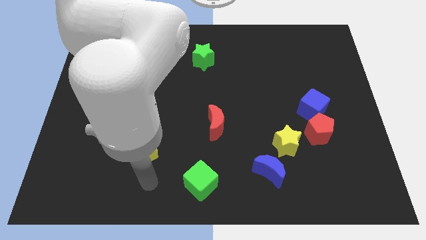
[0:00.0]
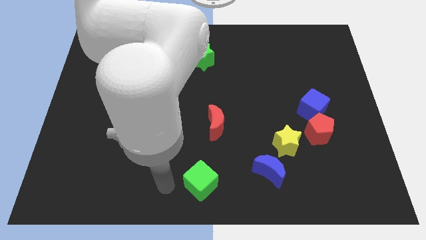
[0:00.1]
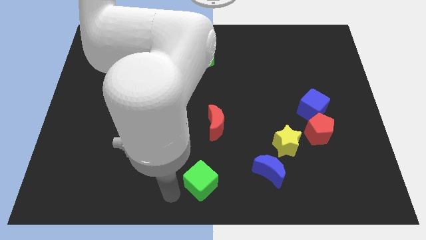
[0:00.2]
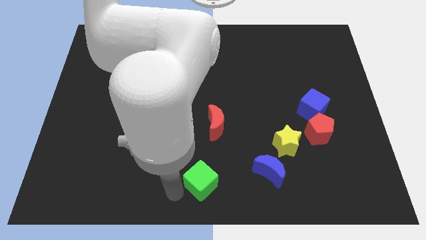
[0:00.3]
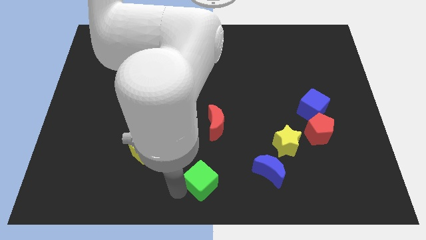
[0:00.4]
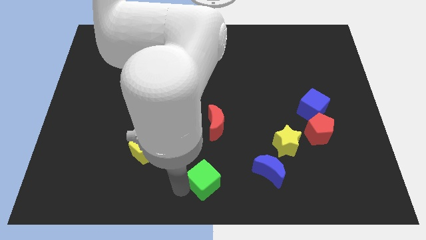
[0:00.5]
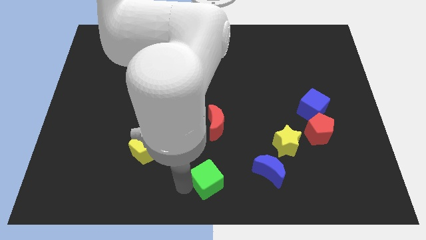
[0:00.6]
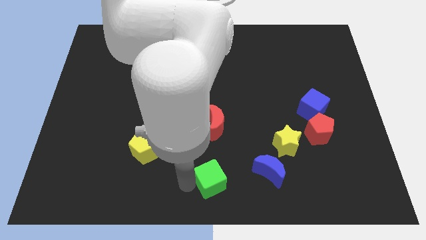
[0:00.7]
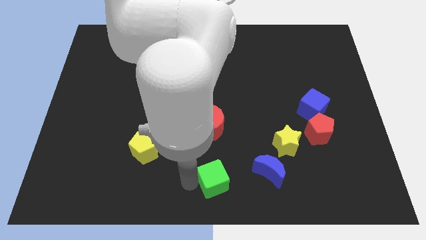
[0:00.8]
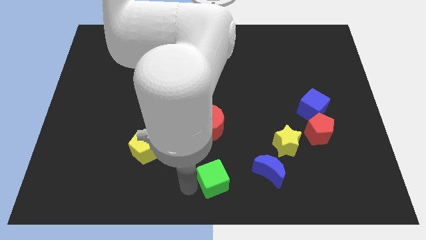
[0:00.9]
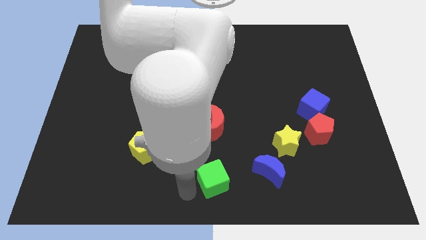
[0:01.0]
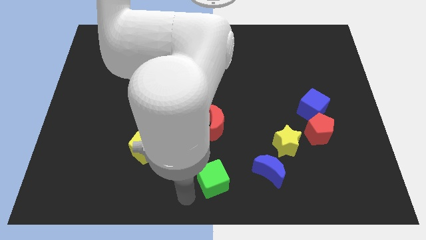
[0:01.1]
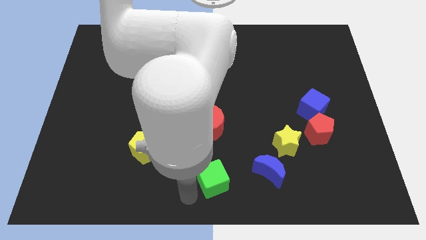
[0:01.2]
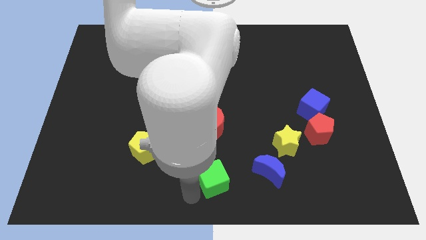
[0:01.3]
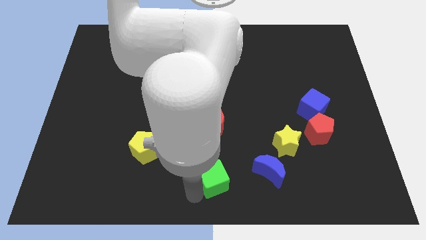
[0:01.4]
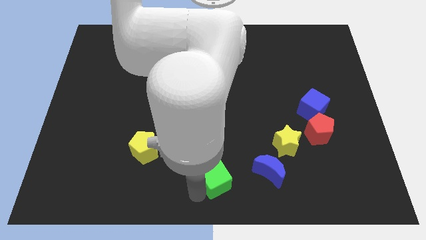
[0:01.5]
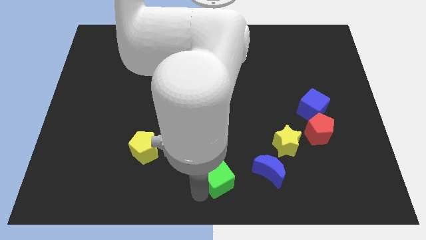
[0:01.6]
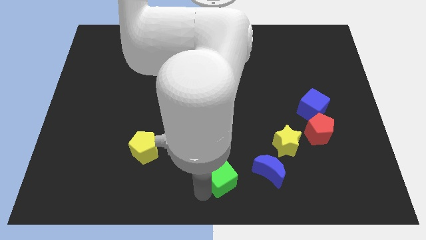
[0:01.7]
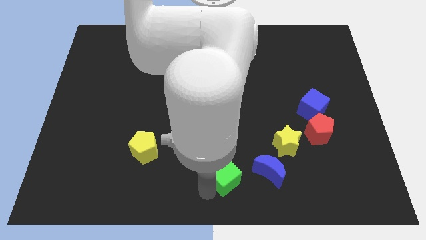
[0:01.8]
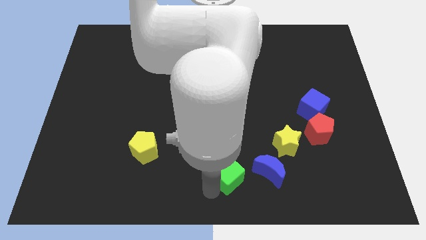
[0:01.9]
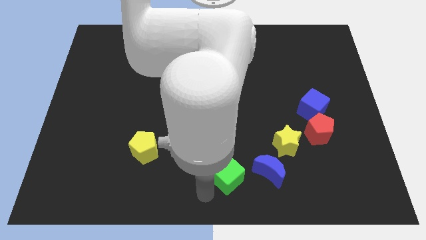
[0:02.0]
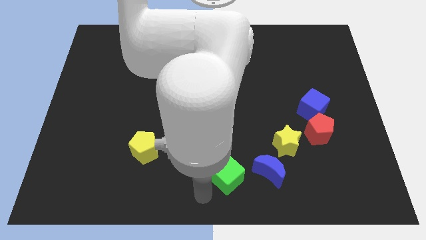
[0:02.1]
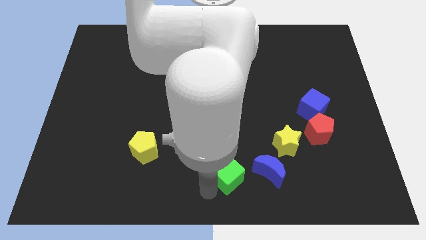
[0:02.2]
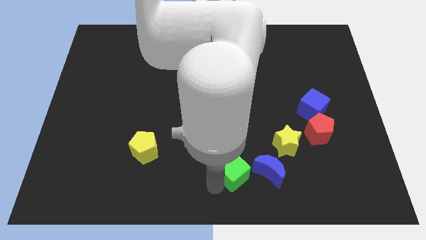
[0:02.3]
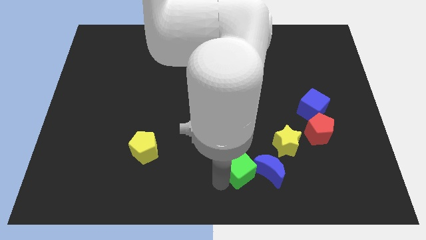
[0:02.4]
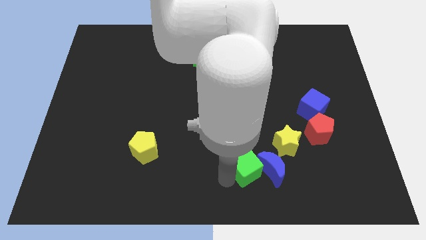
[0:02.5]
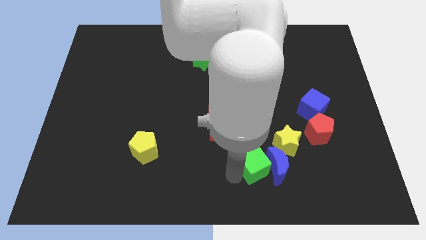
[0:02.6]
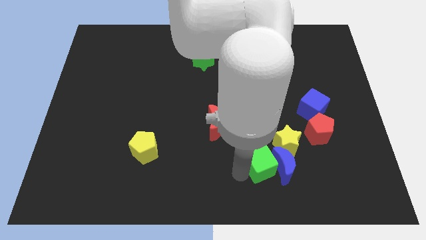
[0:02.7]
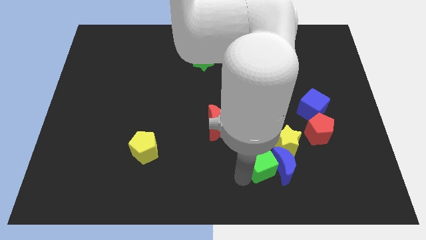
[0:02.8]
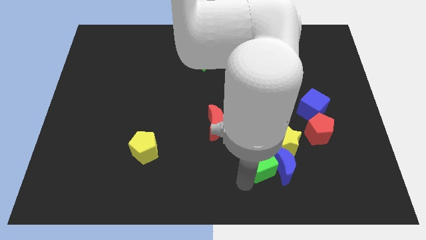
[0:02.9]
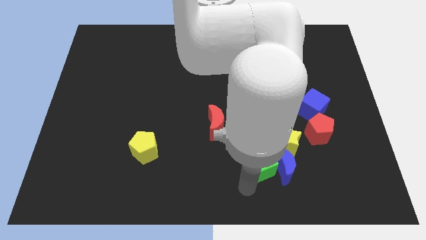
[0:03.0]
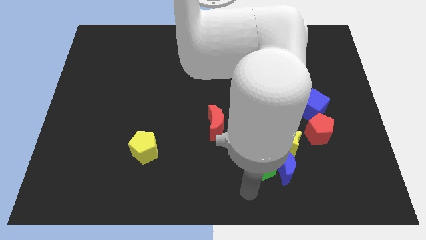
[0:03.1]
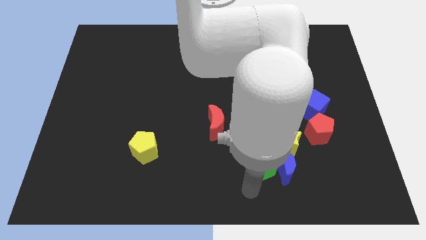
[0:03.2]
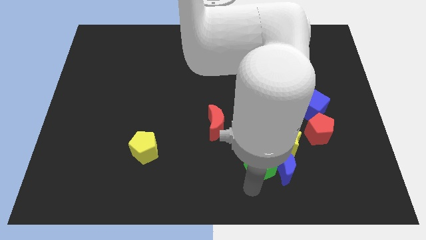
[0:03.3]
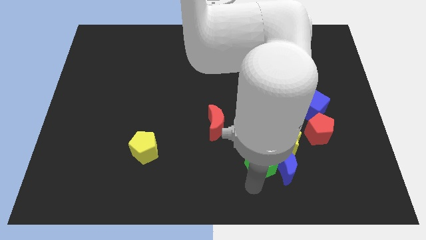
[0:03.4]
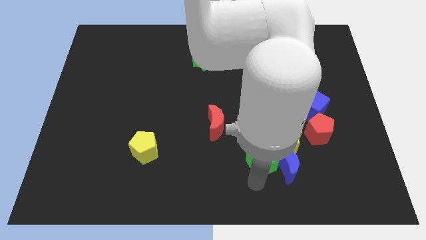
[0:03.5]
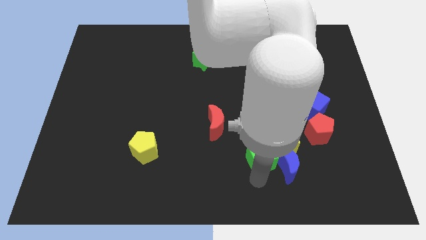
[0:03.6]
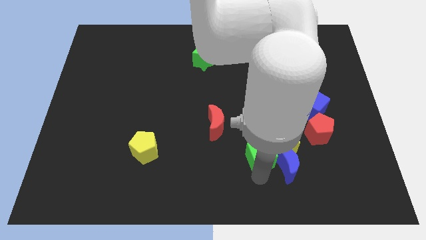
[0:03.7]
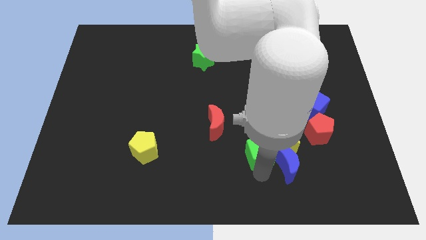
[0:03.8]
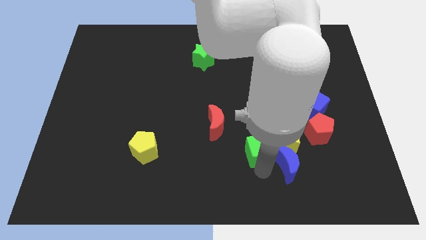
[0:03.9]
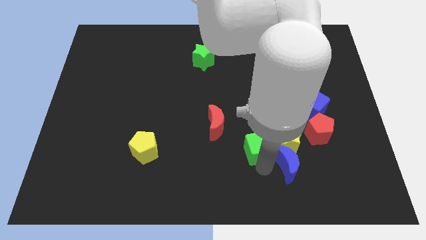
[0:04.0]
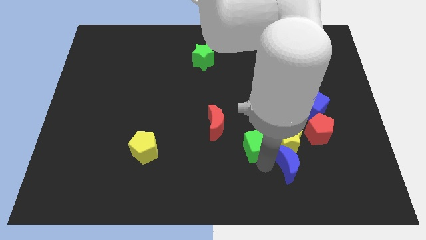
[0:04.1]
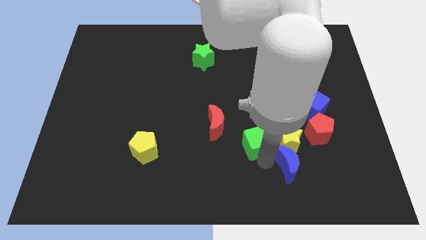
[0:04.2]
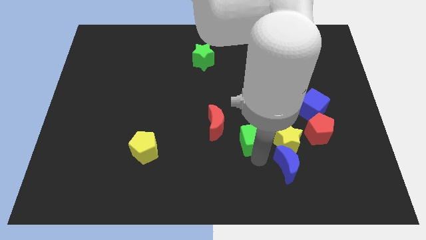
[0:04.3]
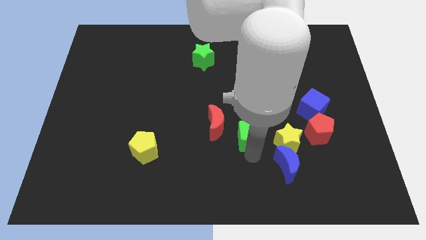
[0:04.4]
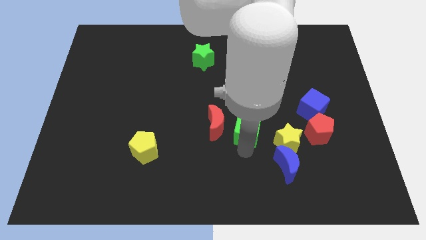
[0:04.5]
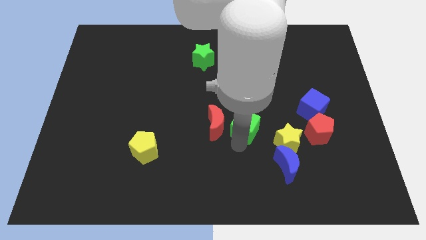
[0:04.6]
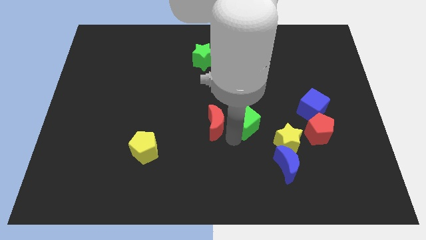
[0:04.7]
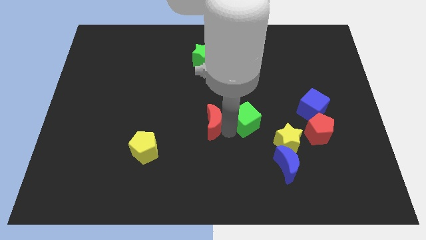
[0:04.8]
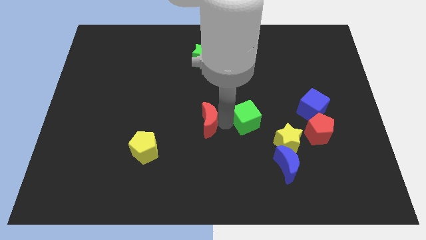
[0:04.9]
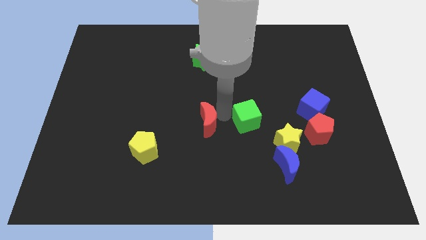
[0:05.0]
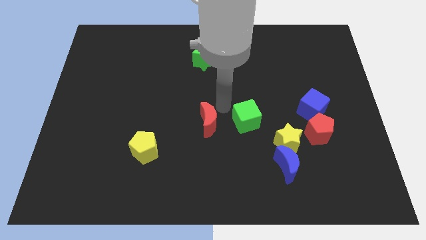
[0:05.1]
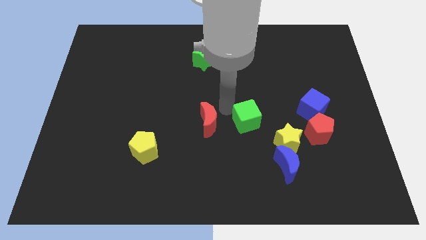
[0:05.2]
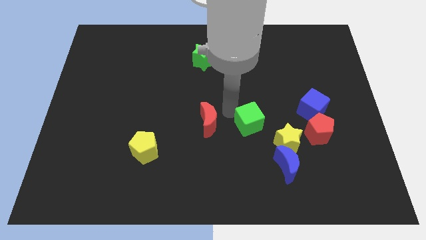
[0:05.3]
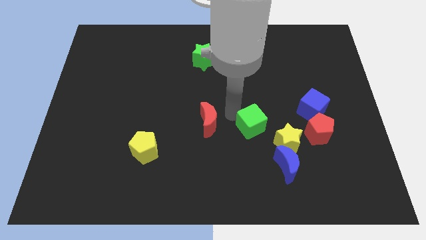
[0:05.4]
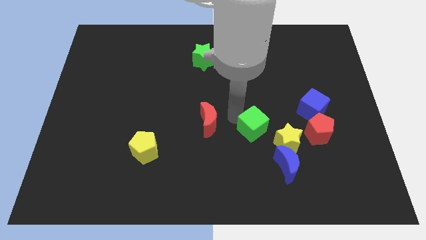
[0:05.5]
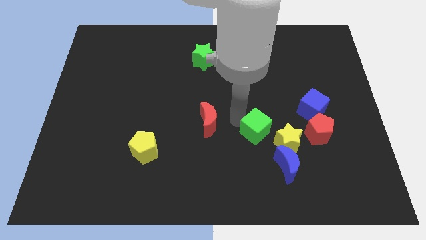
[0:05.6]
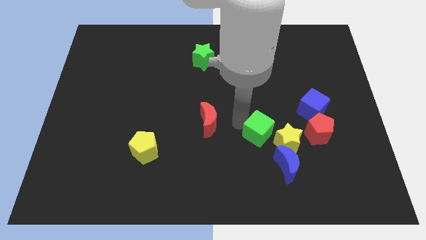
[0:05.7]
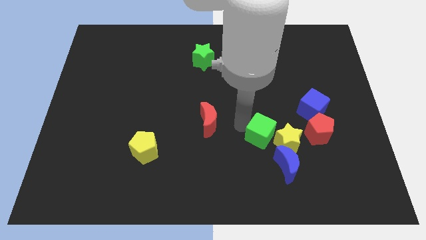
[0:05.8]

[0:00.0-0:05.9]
push the green cube towards the yellow star

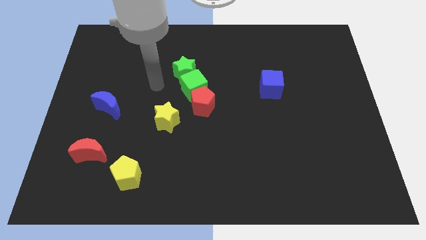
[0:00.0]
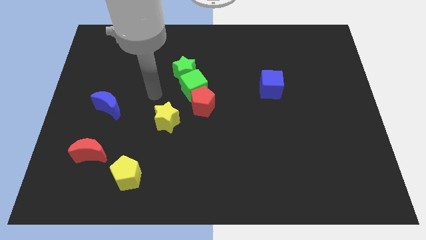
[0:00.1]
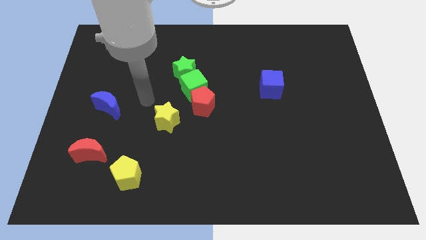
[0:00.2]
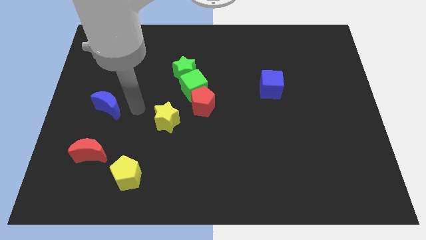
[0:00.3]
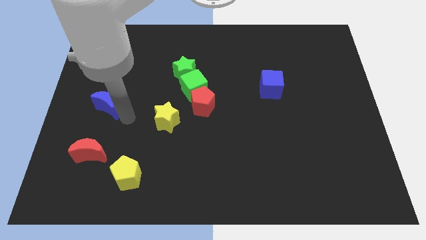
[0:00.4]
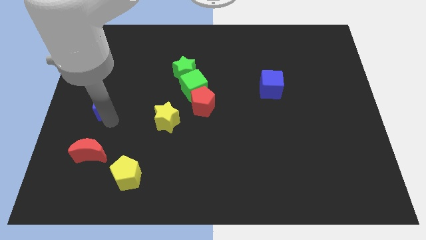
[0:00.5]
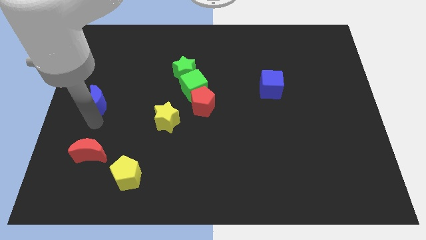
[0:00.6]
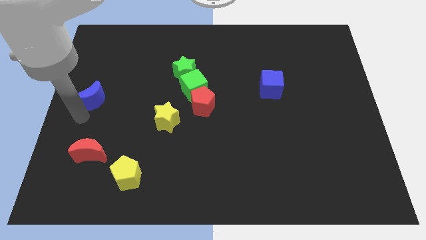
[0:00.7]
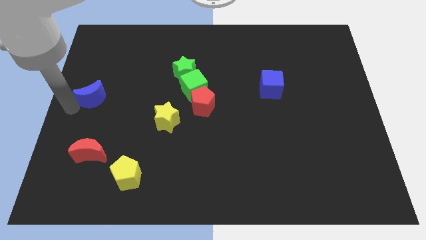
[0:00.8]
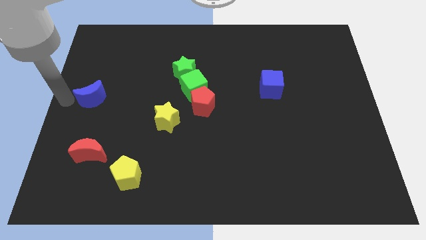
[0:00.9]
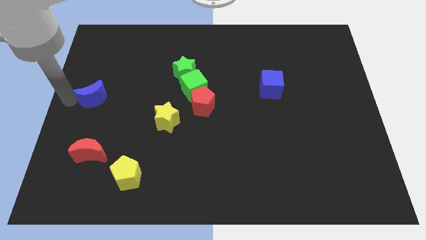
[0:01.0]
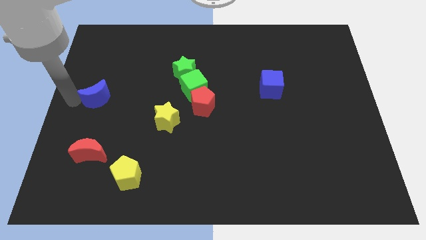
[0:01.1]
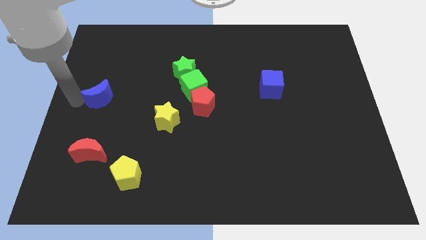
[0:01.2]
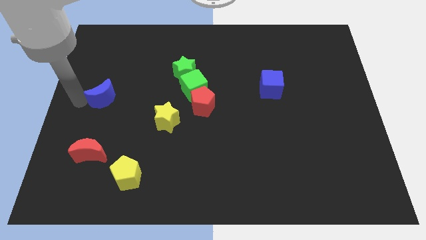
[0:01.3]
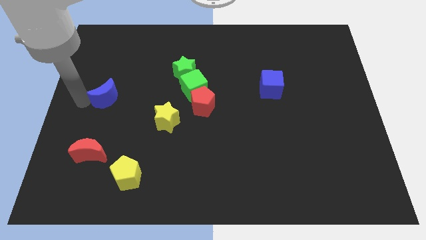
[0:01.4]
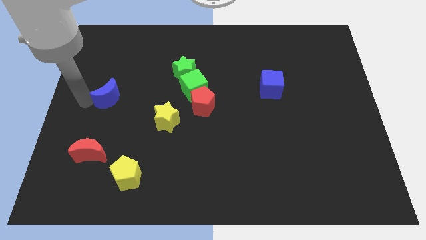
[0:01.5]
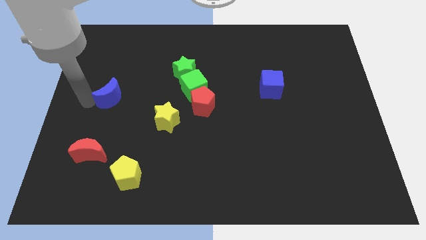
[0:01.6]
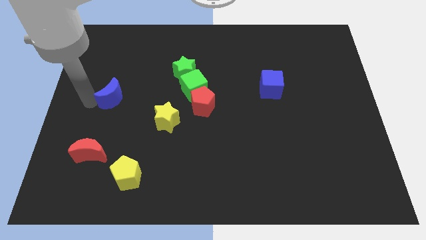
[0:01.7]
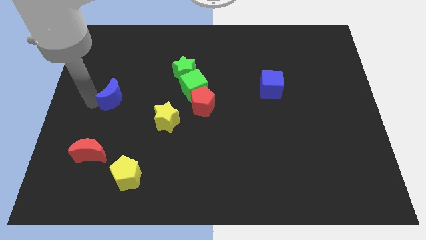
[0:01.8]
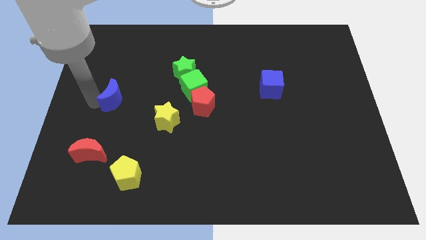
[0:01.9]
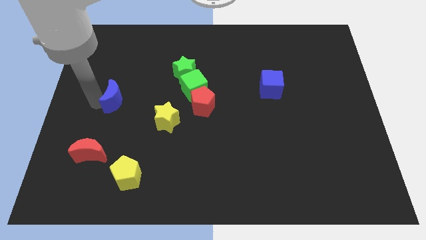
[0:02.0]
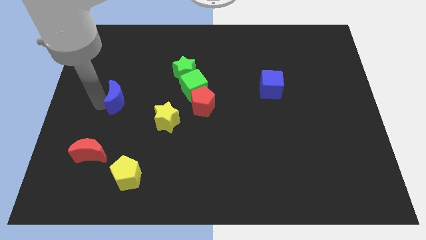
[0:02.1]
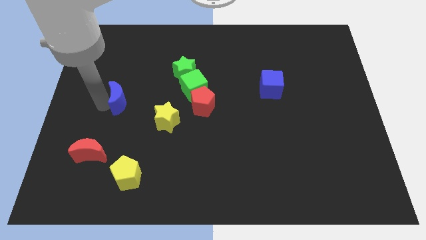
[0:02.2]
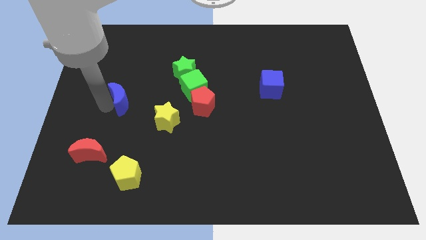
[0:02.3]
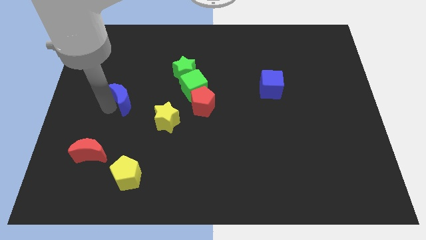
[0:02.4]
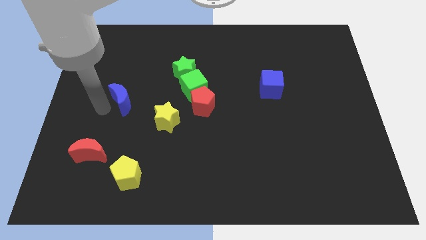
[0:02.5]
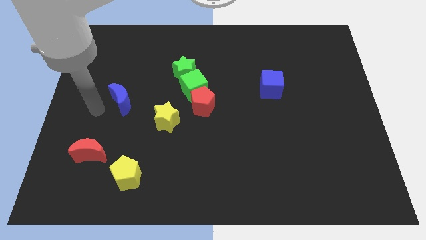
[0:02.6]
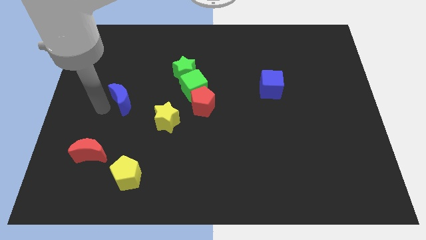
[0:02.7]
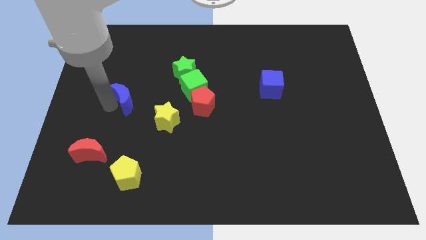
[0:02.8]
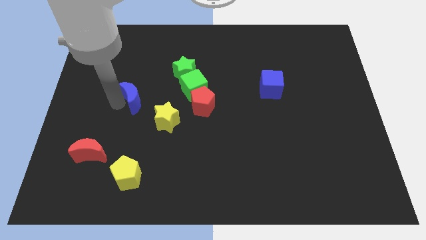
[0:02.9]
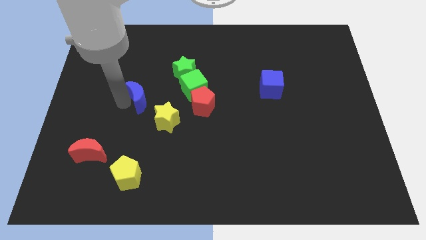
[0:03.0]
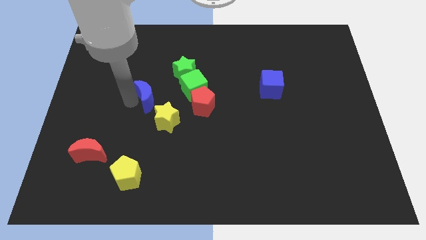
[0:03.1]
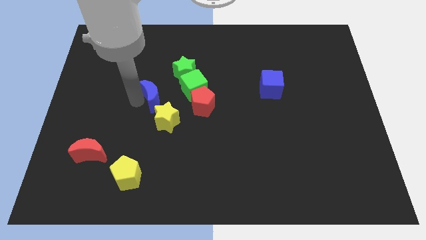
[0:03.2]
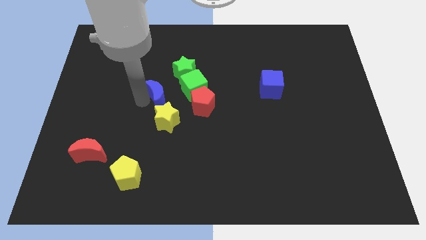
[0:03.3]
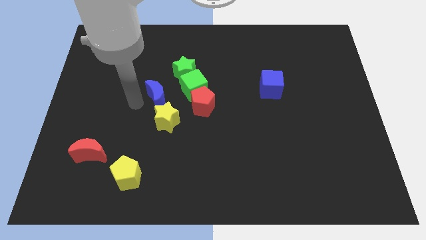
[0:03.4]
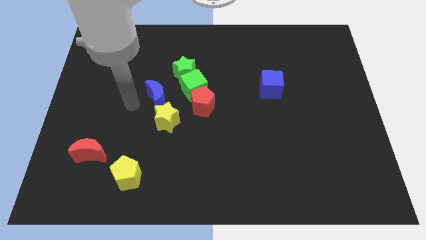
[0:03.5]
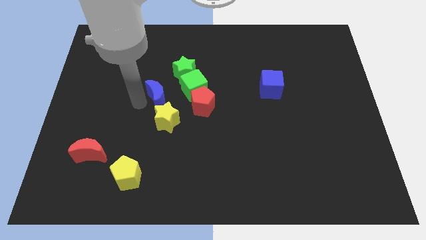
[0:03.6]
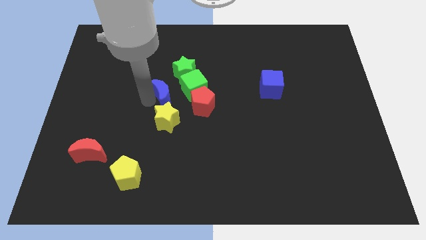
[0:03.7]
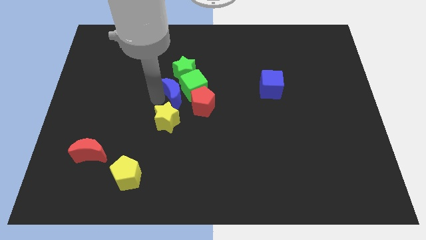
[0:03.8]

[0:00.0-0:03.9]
put the blue moon to the green cube
